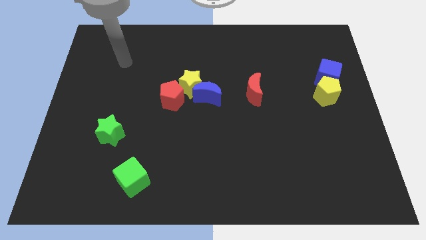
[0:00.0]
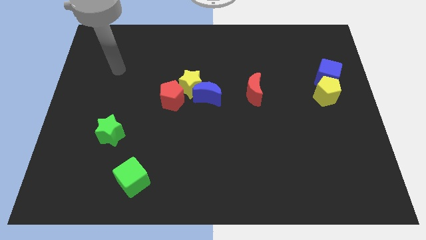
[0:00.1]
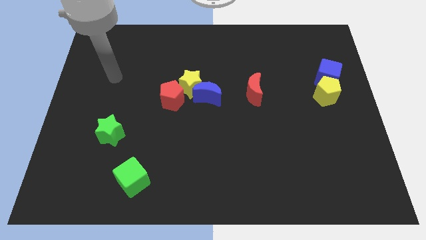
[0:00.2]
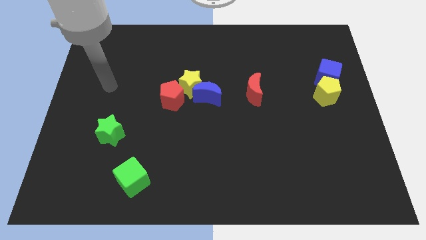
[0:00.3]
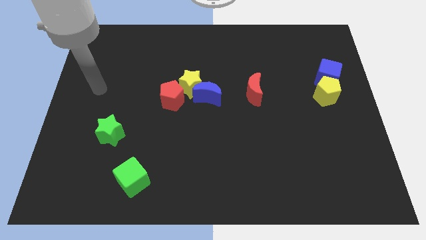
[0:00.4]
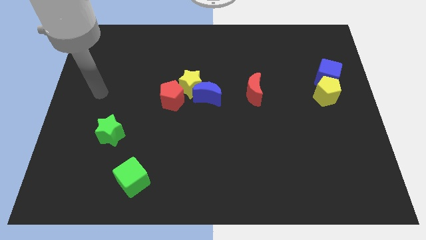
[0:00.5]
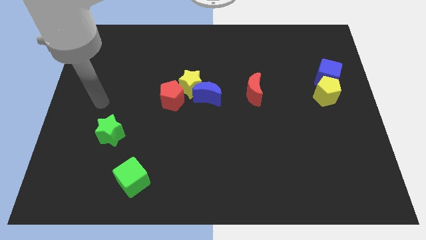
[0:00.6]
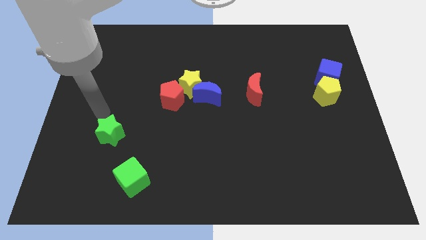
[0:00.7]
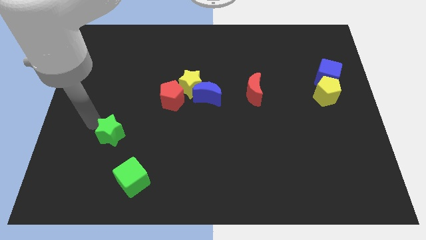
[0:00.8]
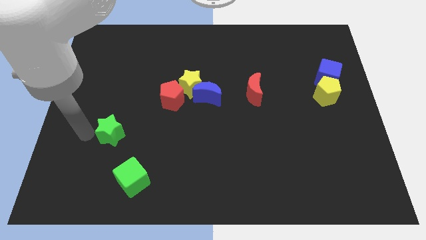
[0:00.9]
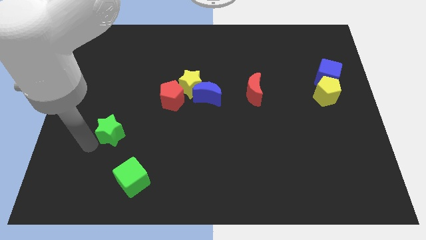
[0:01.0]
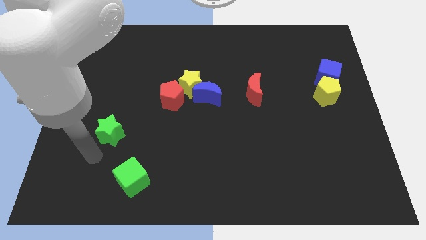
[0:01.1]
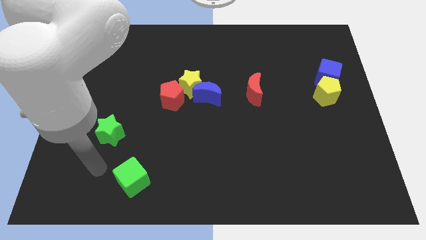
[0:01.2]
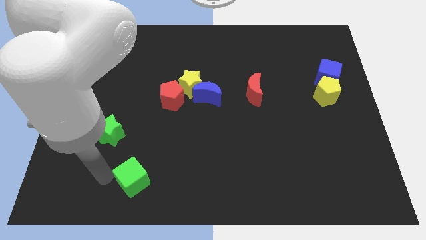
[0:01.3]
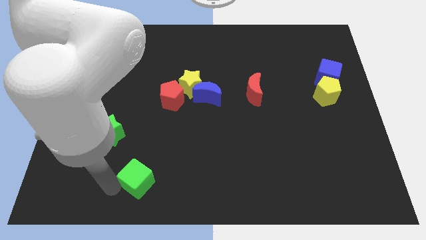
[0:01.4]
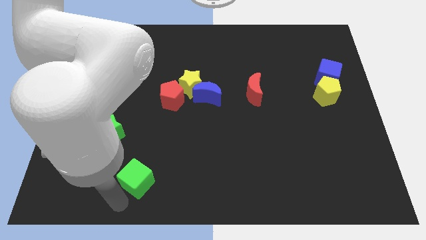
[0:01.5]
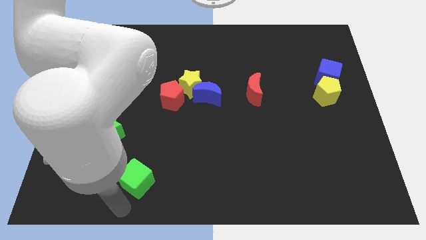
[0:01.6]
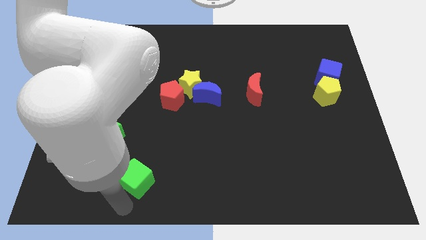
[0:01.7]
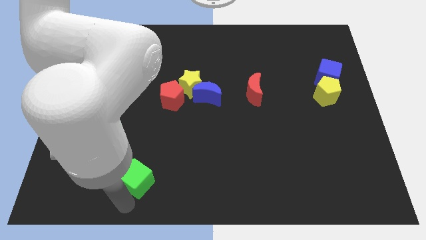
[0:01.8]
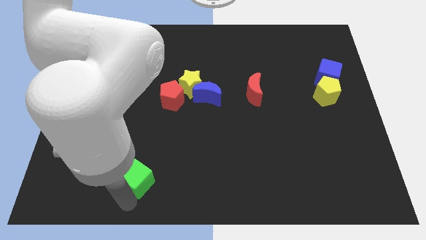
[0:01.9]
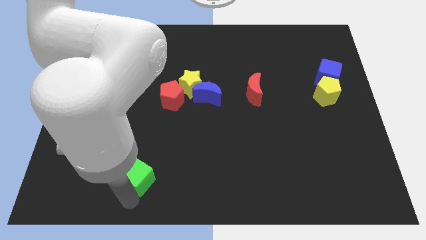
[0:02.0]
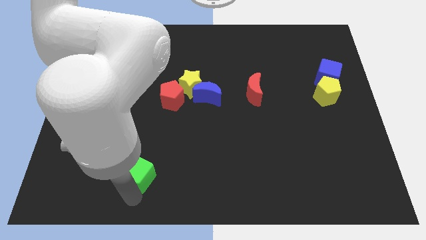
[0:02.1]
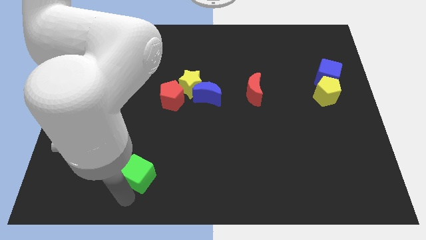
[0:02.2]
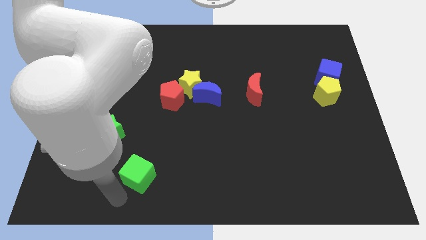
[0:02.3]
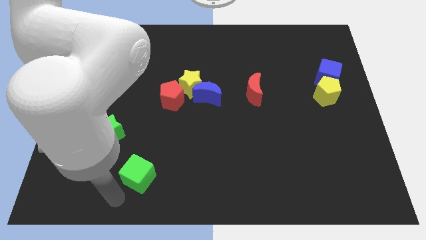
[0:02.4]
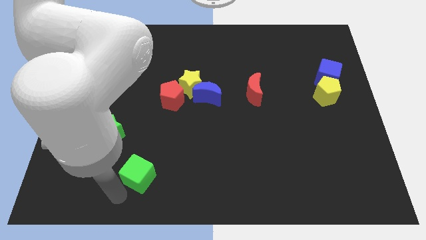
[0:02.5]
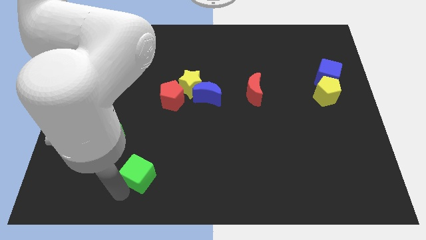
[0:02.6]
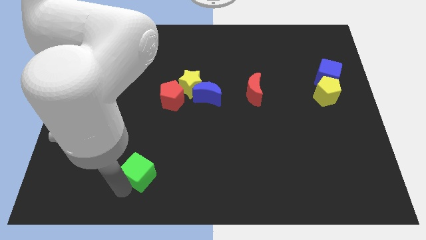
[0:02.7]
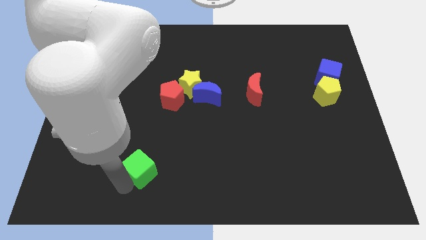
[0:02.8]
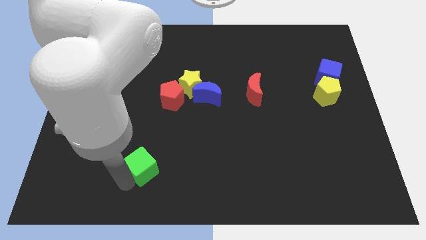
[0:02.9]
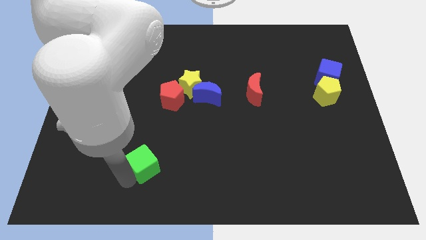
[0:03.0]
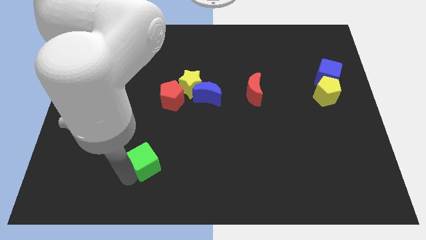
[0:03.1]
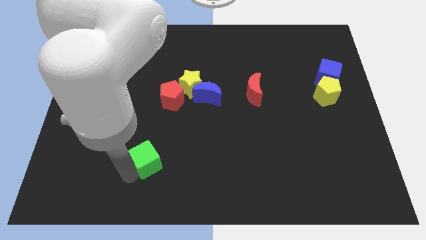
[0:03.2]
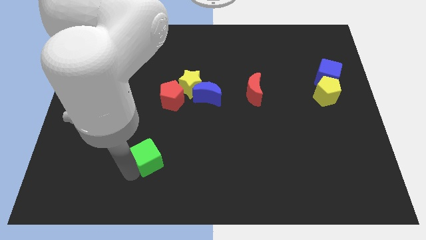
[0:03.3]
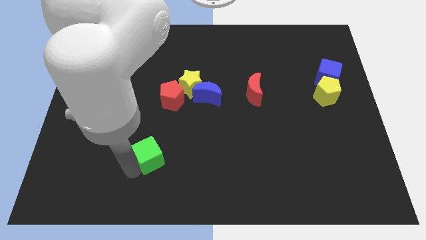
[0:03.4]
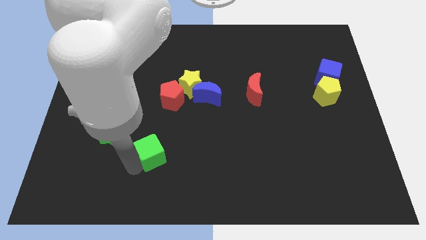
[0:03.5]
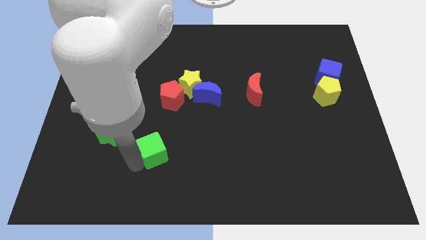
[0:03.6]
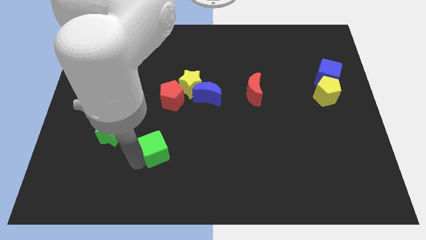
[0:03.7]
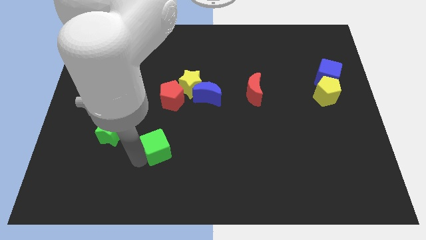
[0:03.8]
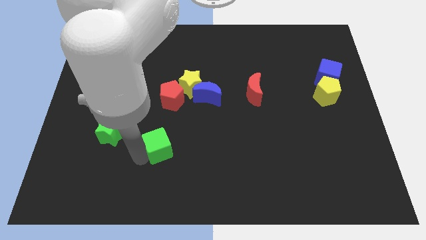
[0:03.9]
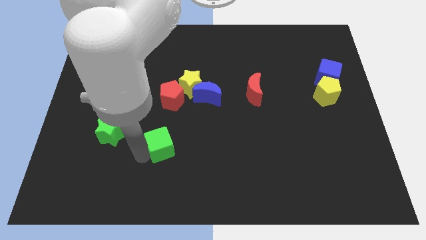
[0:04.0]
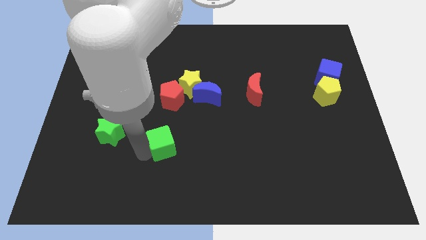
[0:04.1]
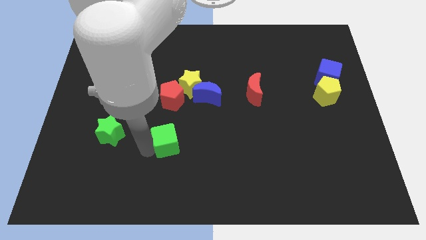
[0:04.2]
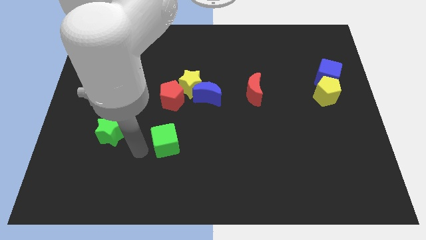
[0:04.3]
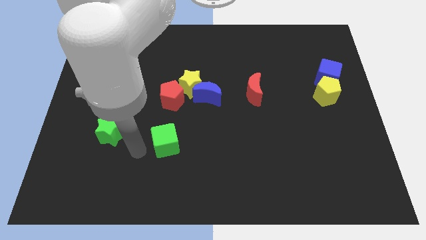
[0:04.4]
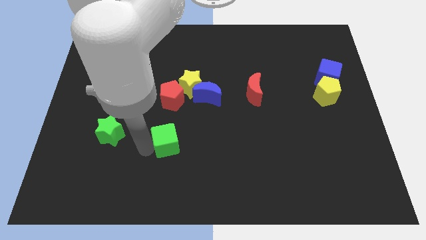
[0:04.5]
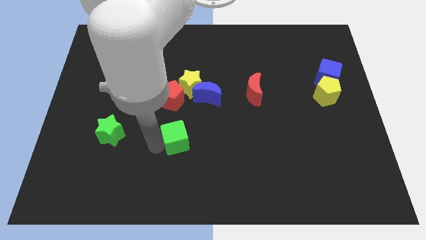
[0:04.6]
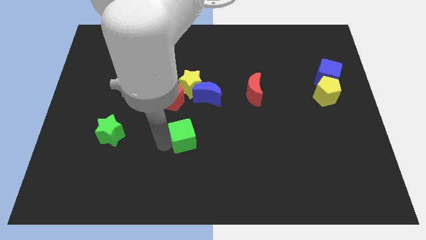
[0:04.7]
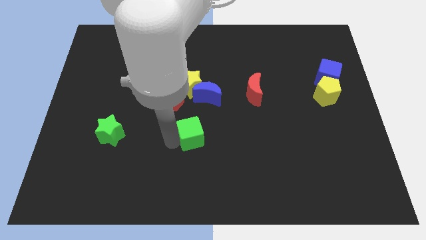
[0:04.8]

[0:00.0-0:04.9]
move the green cube to the bottom of the blue moon

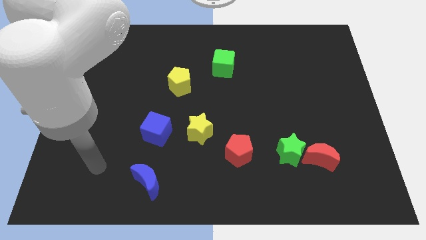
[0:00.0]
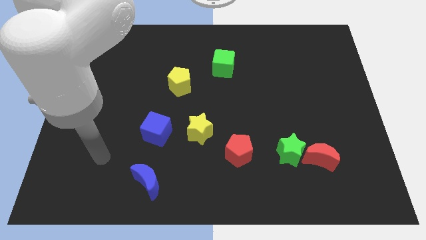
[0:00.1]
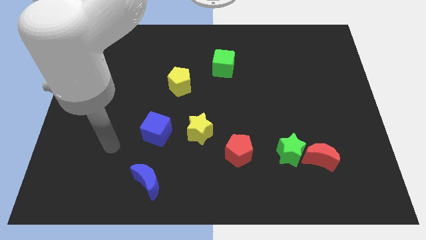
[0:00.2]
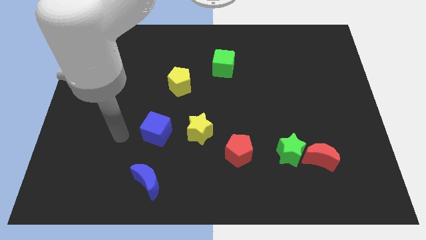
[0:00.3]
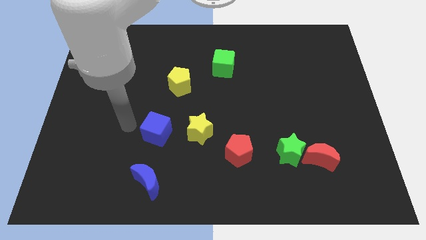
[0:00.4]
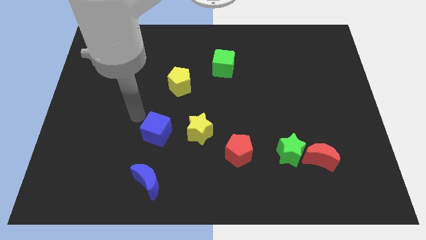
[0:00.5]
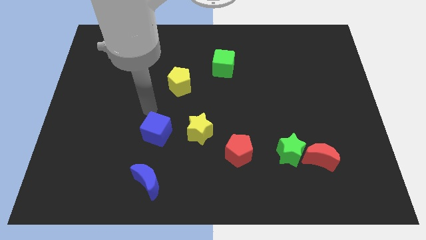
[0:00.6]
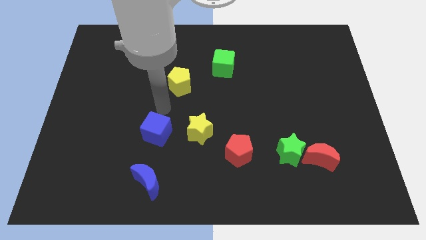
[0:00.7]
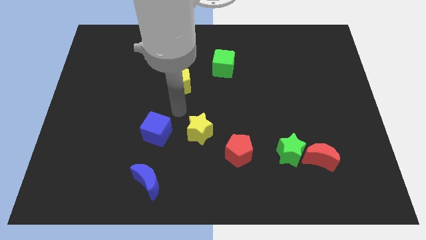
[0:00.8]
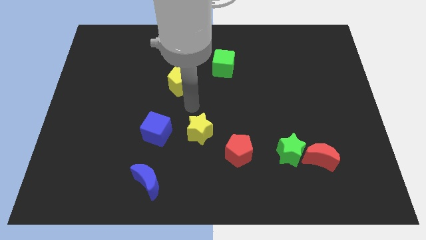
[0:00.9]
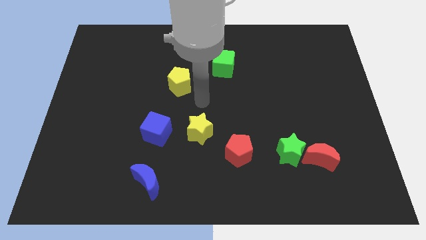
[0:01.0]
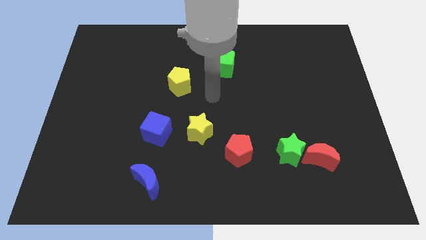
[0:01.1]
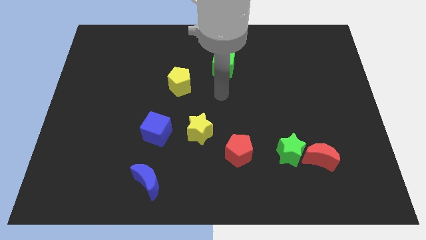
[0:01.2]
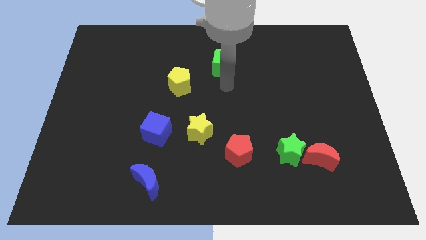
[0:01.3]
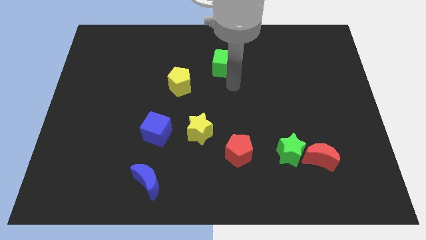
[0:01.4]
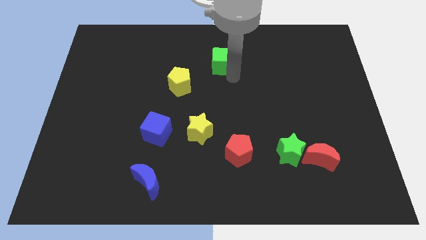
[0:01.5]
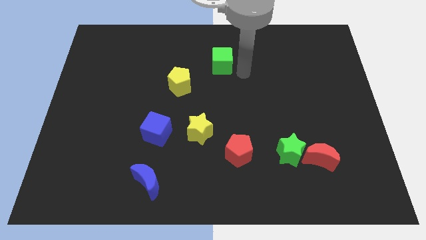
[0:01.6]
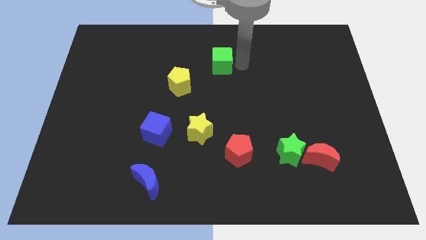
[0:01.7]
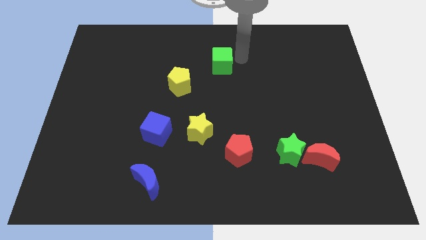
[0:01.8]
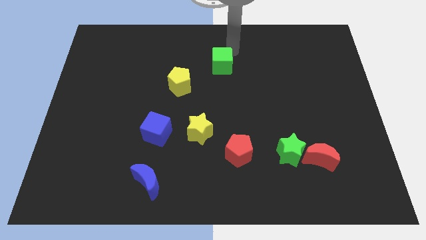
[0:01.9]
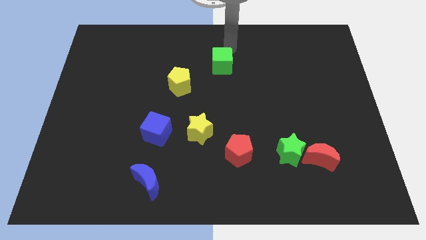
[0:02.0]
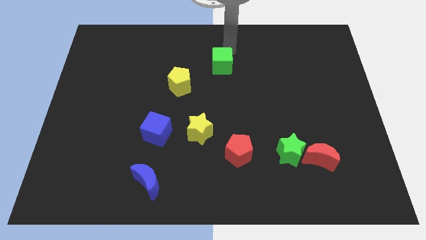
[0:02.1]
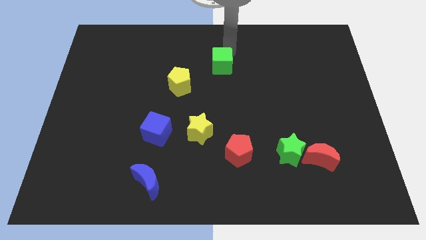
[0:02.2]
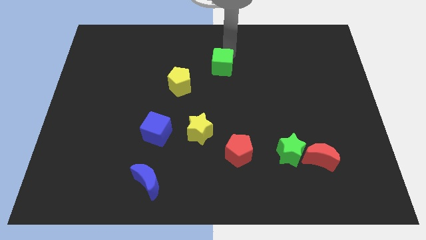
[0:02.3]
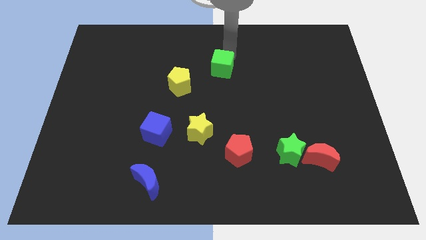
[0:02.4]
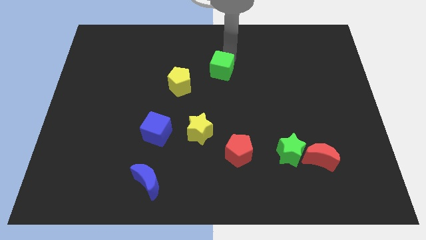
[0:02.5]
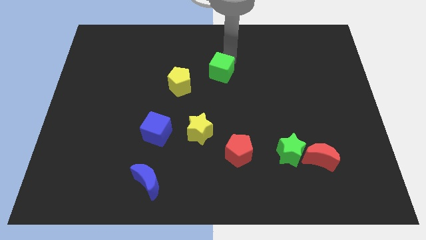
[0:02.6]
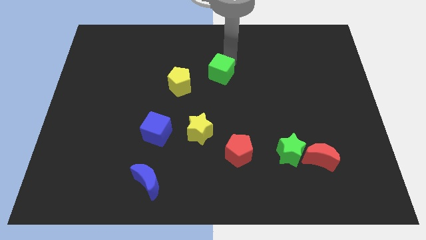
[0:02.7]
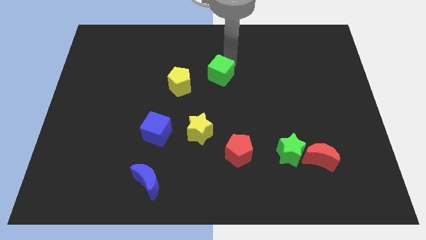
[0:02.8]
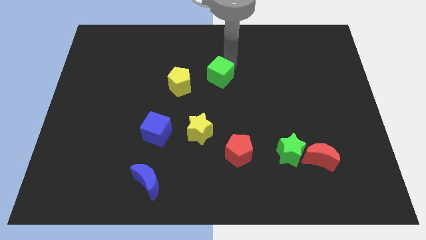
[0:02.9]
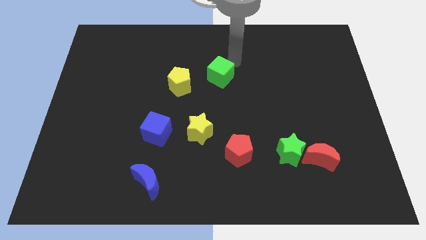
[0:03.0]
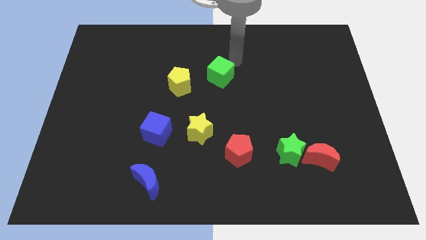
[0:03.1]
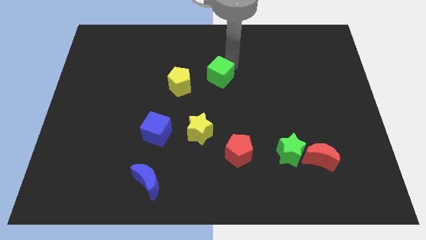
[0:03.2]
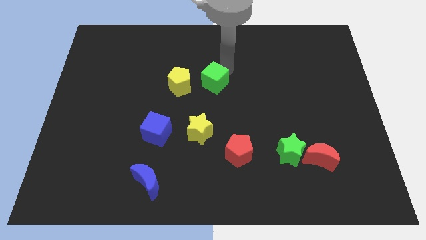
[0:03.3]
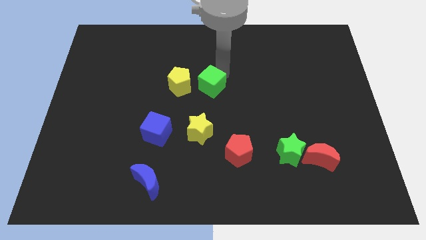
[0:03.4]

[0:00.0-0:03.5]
push the green cube to the top side of the yellow star
